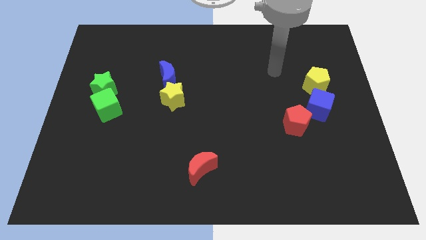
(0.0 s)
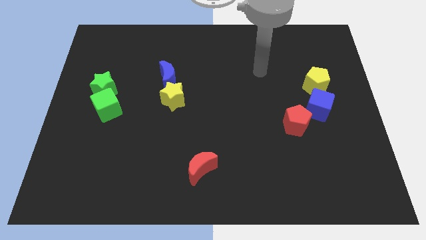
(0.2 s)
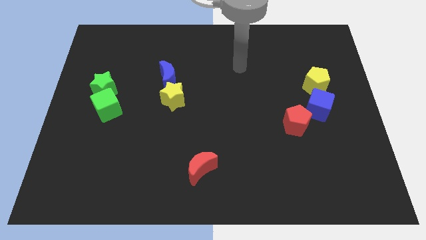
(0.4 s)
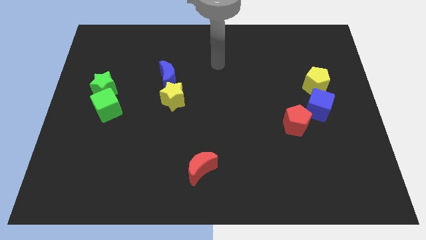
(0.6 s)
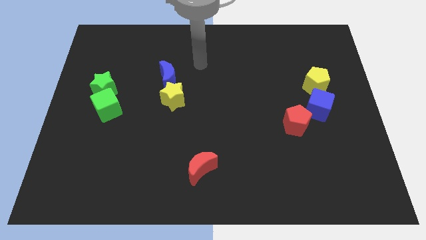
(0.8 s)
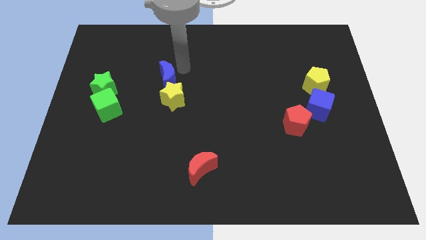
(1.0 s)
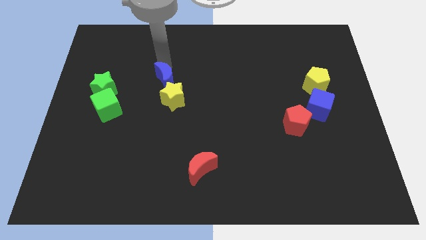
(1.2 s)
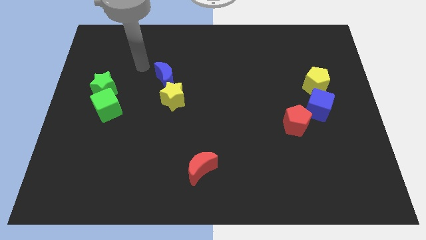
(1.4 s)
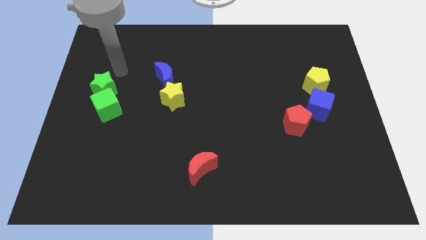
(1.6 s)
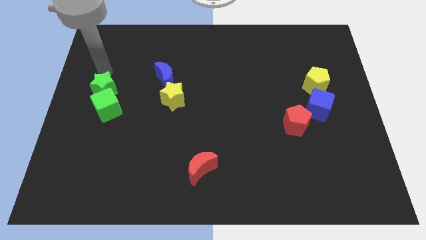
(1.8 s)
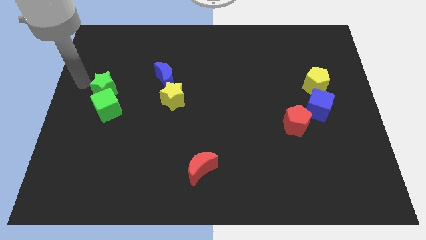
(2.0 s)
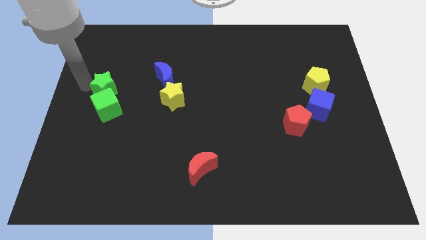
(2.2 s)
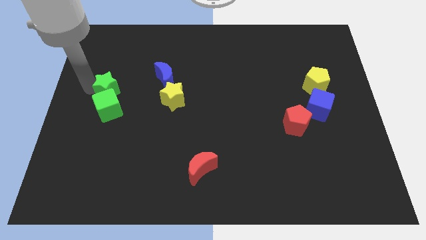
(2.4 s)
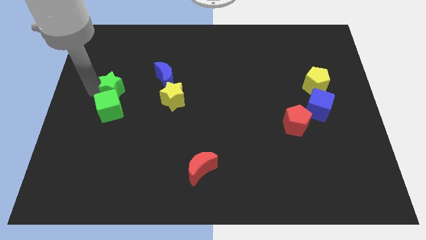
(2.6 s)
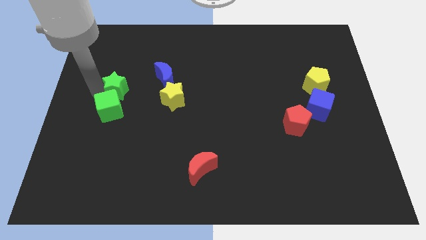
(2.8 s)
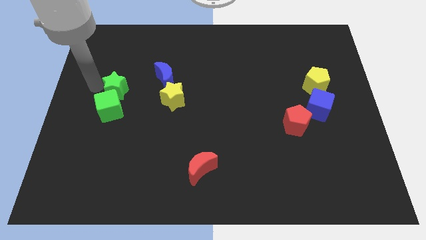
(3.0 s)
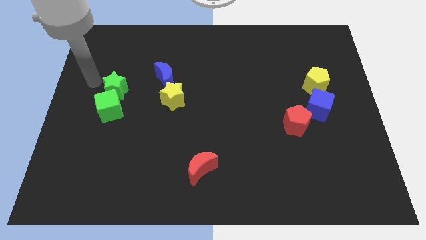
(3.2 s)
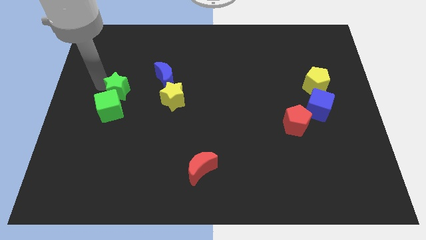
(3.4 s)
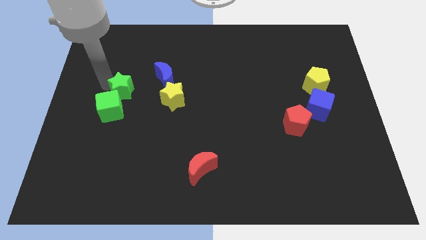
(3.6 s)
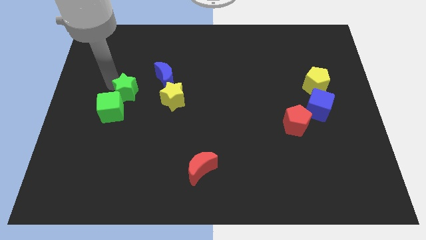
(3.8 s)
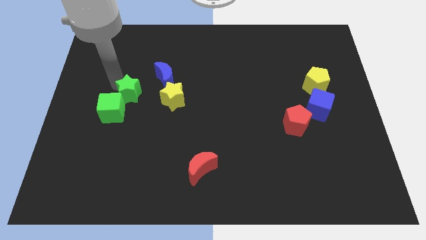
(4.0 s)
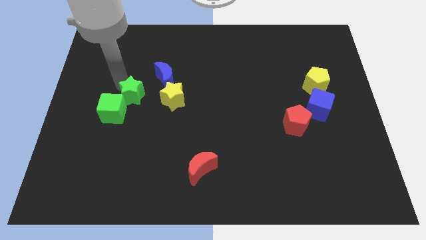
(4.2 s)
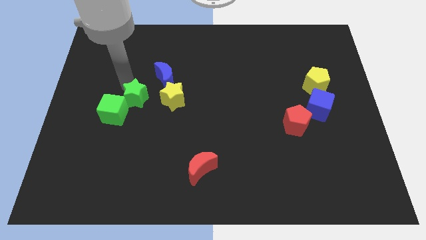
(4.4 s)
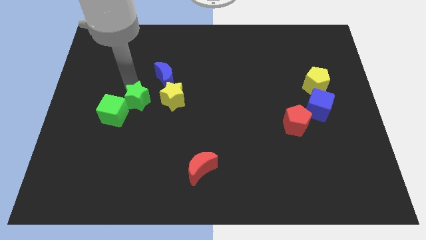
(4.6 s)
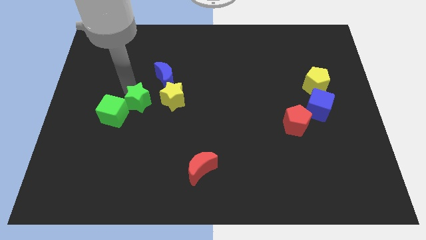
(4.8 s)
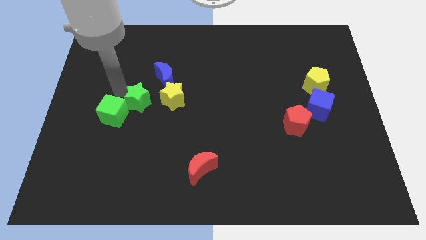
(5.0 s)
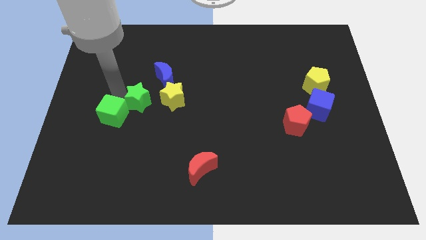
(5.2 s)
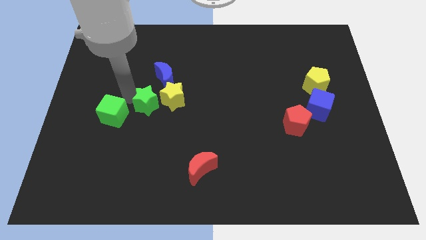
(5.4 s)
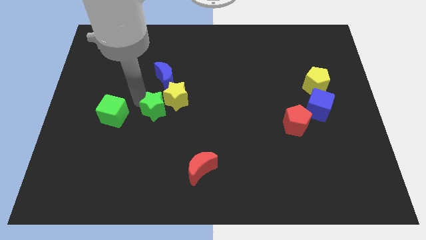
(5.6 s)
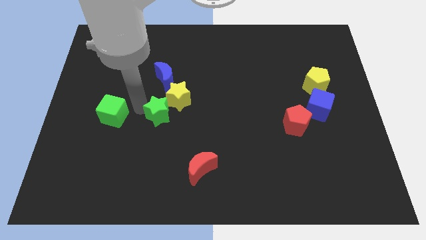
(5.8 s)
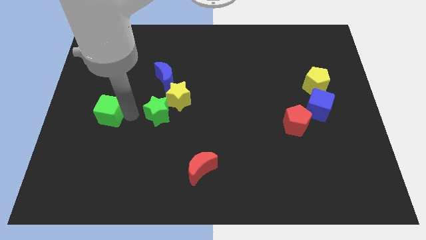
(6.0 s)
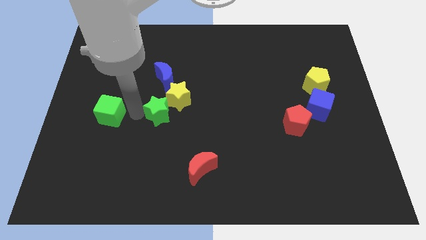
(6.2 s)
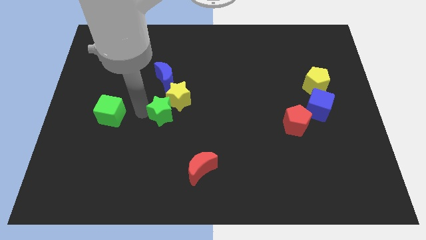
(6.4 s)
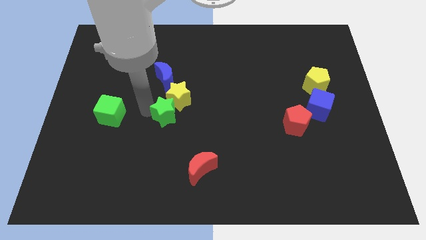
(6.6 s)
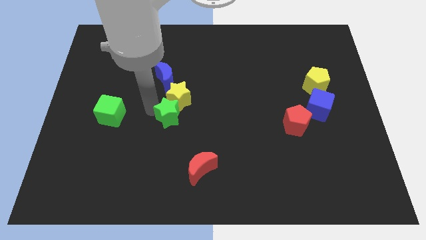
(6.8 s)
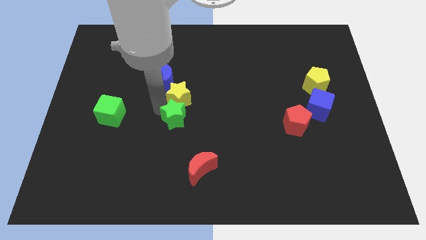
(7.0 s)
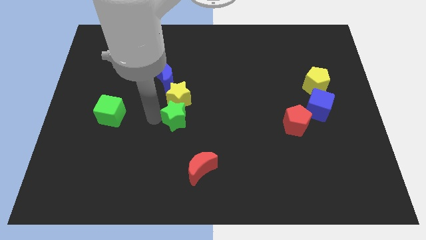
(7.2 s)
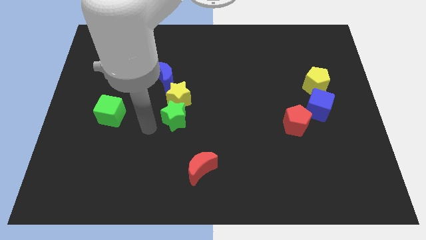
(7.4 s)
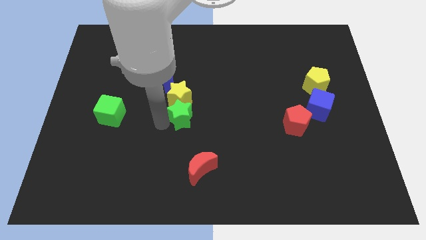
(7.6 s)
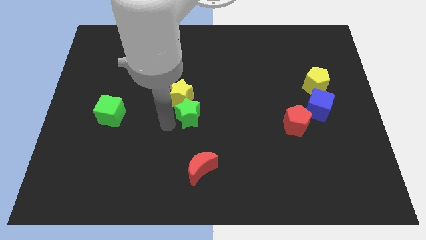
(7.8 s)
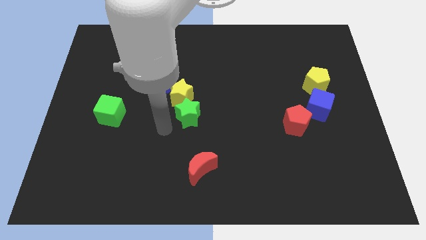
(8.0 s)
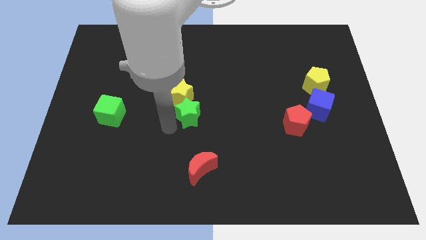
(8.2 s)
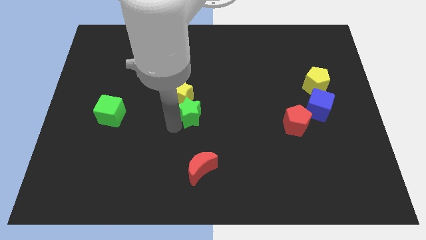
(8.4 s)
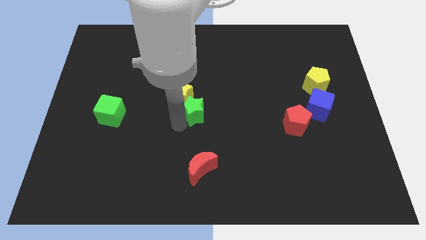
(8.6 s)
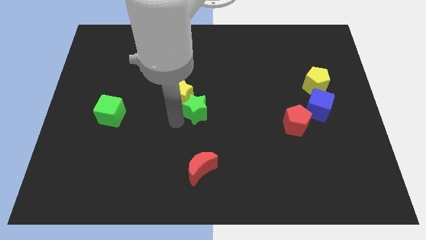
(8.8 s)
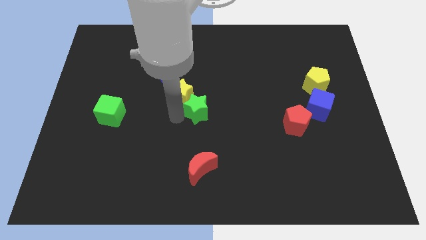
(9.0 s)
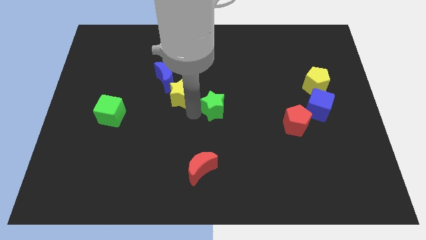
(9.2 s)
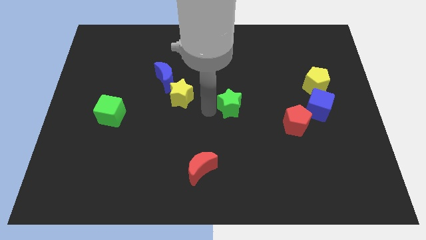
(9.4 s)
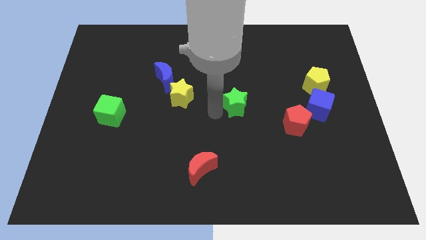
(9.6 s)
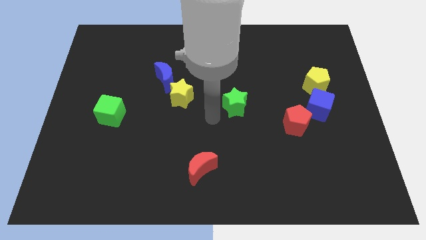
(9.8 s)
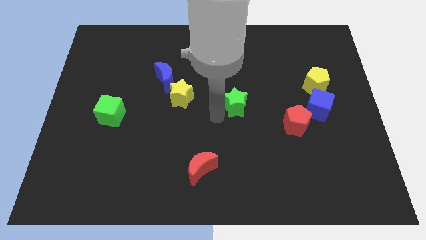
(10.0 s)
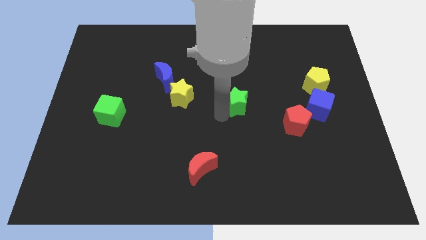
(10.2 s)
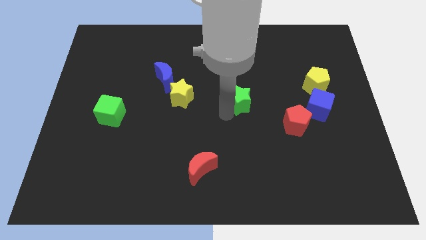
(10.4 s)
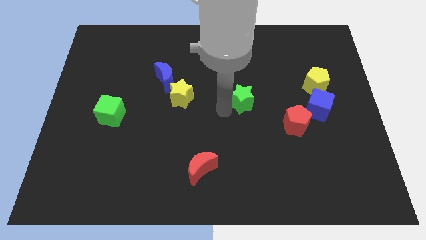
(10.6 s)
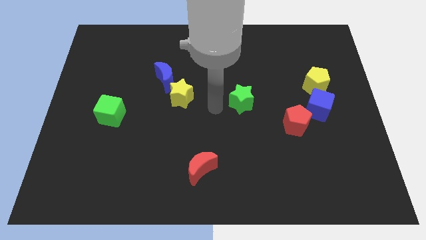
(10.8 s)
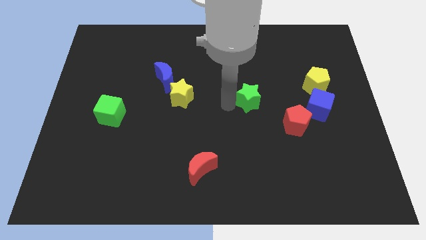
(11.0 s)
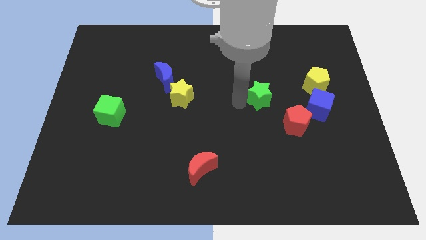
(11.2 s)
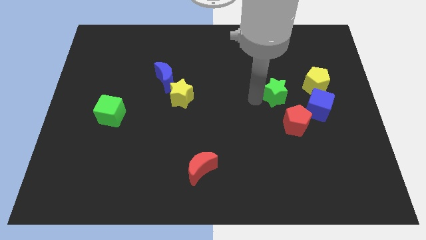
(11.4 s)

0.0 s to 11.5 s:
push the green star to the top of the red pentagon

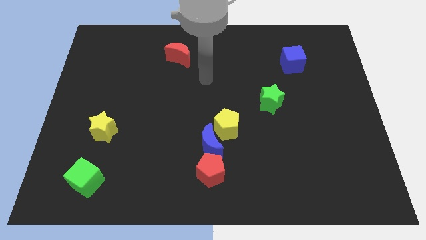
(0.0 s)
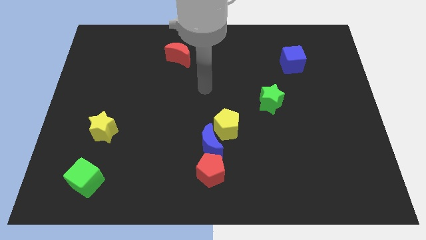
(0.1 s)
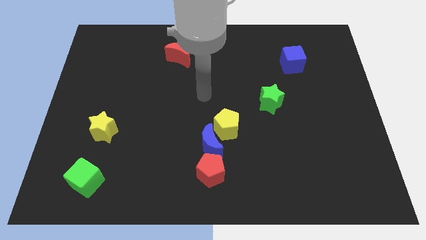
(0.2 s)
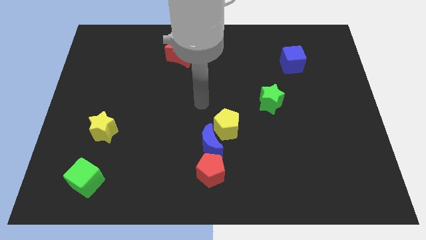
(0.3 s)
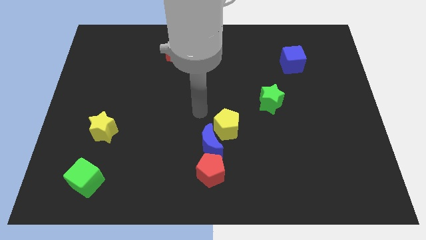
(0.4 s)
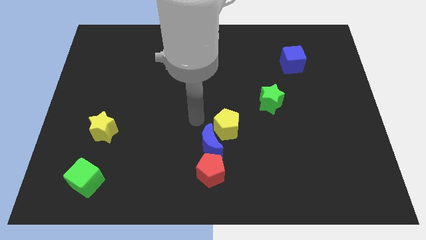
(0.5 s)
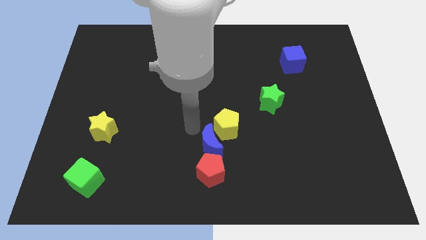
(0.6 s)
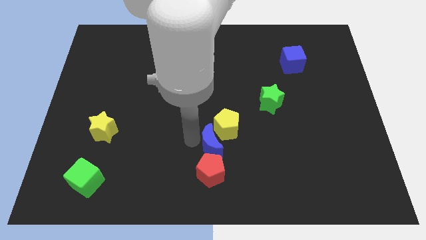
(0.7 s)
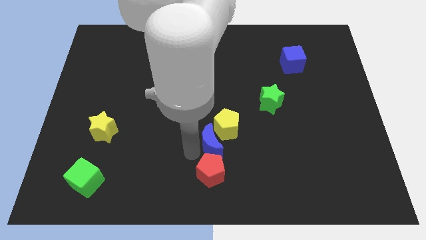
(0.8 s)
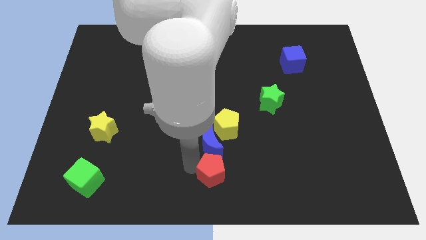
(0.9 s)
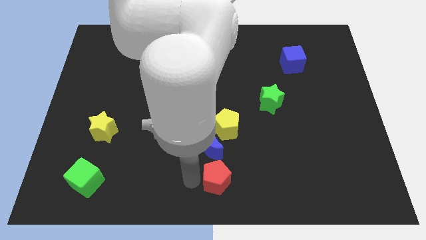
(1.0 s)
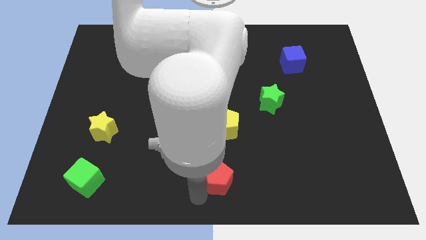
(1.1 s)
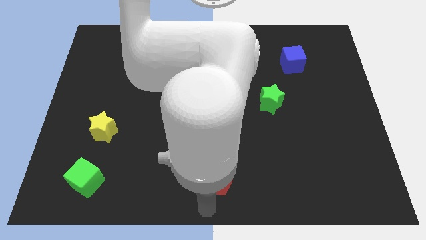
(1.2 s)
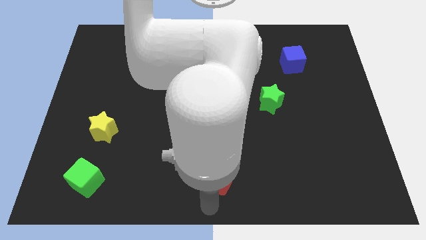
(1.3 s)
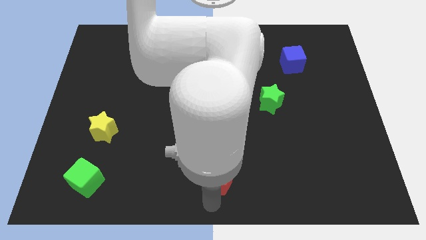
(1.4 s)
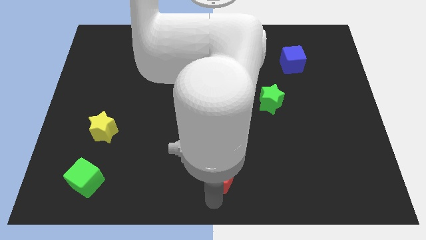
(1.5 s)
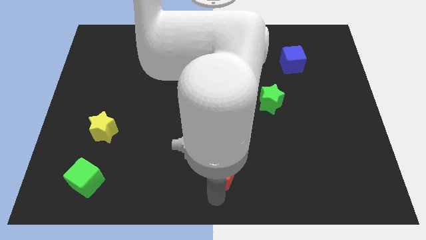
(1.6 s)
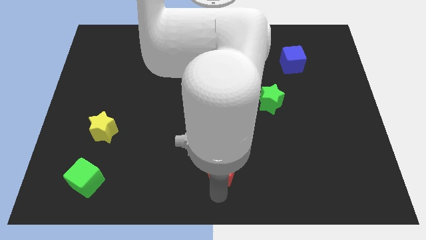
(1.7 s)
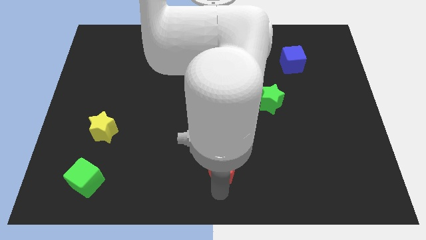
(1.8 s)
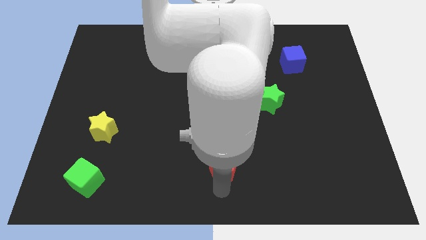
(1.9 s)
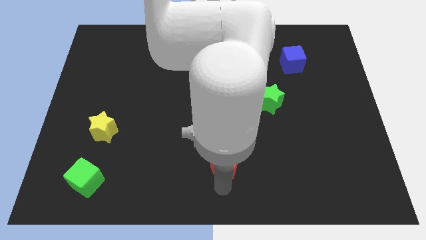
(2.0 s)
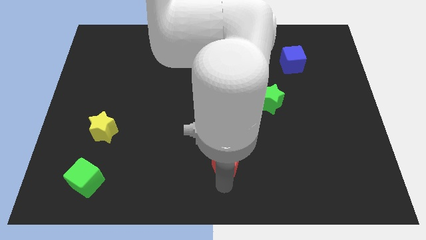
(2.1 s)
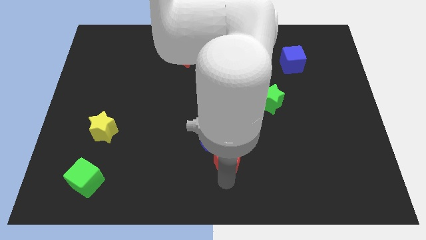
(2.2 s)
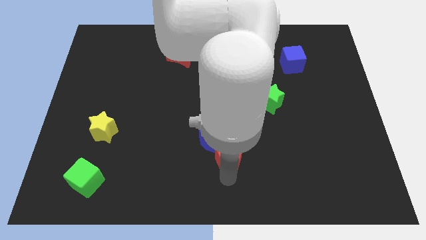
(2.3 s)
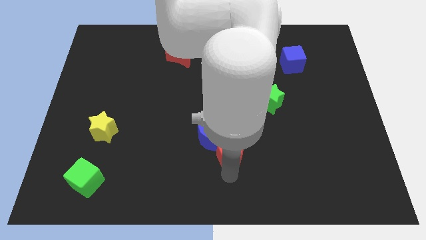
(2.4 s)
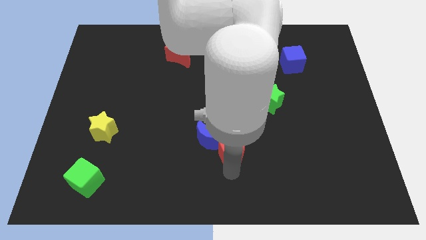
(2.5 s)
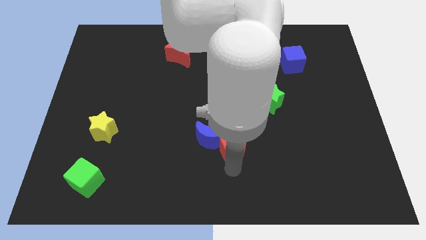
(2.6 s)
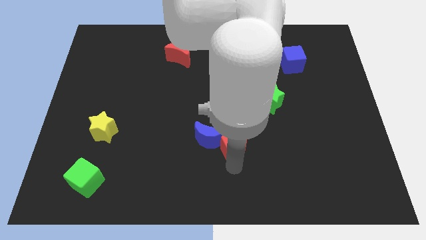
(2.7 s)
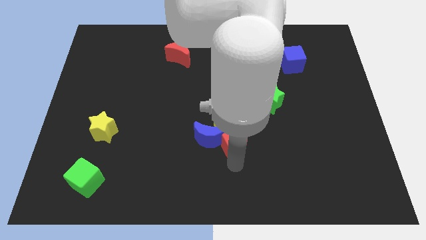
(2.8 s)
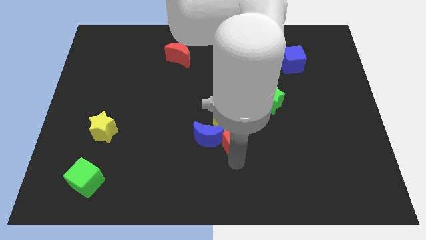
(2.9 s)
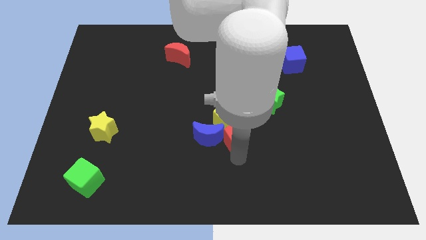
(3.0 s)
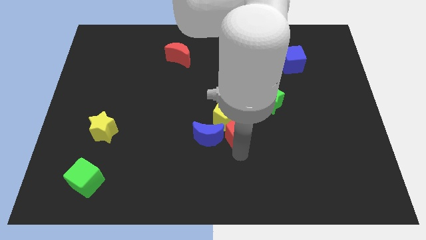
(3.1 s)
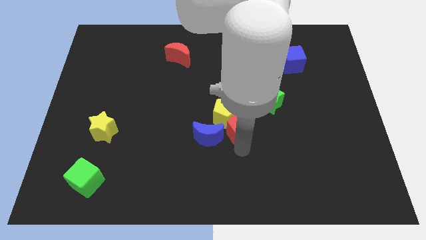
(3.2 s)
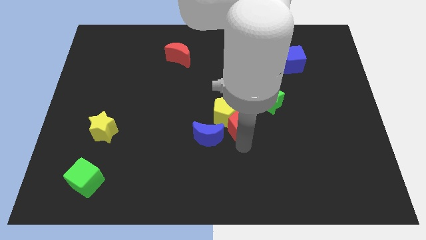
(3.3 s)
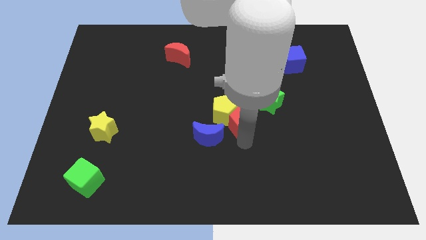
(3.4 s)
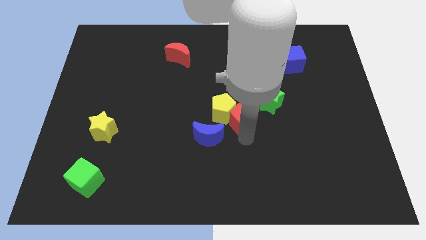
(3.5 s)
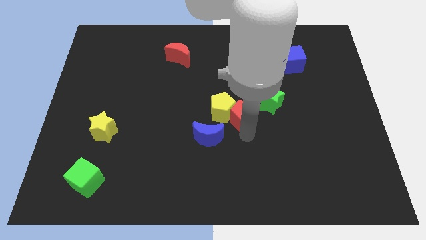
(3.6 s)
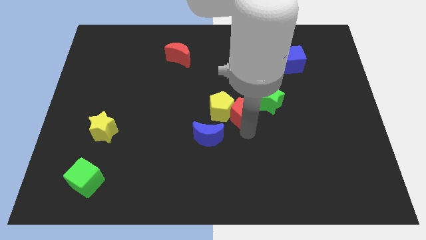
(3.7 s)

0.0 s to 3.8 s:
move the red pentagon diagonally up and to the right of the yellow pentagon
